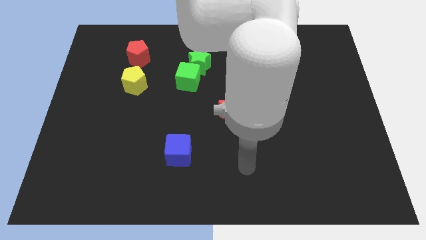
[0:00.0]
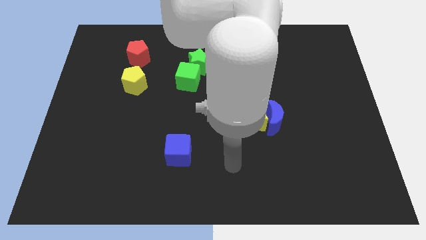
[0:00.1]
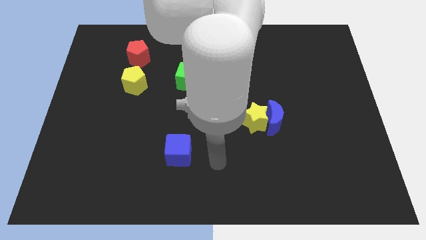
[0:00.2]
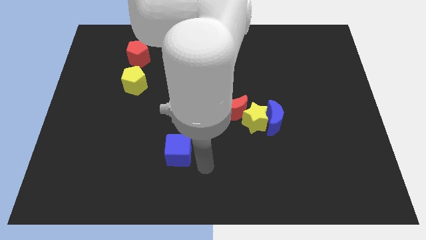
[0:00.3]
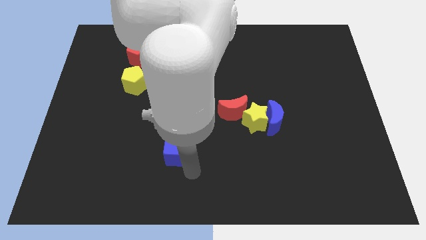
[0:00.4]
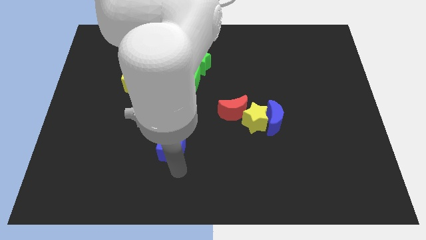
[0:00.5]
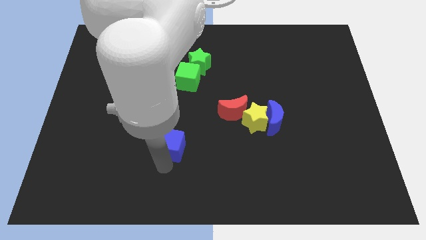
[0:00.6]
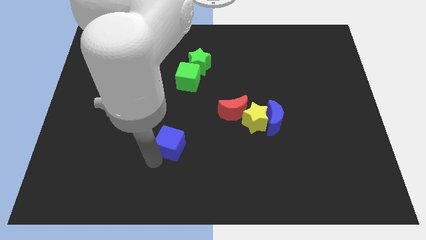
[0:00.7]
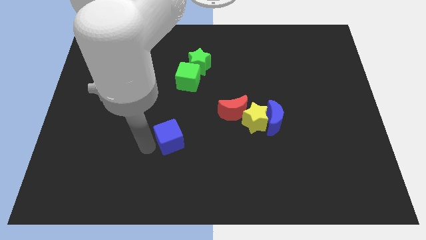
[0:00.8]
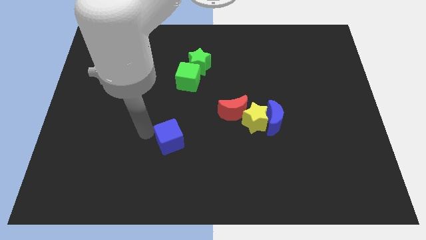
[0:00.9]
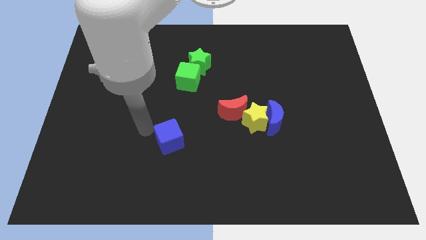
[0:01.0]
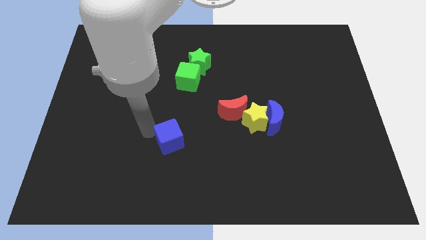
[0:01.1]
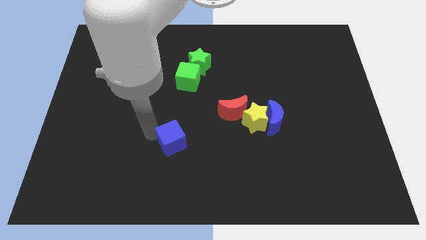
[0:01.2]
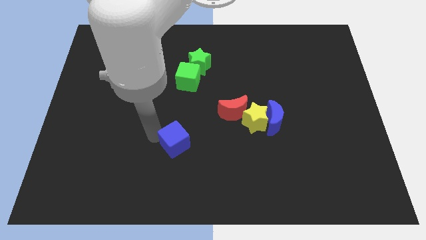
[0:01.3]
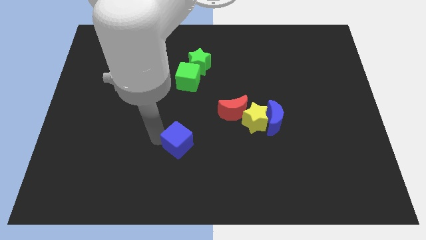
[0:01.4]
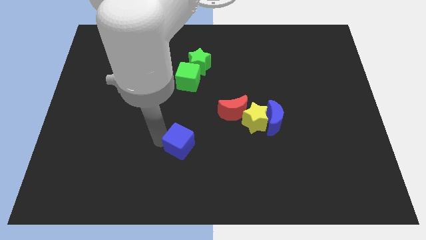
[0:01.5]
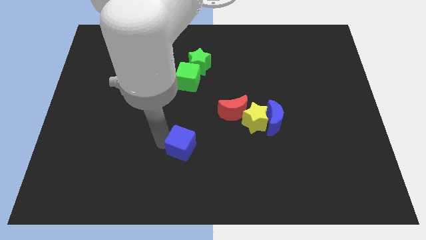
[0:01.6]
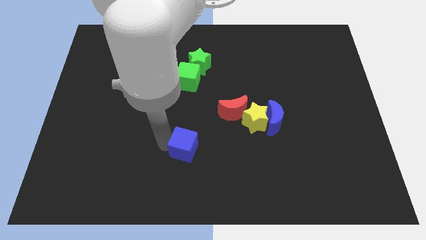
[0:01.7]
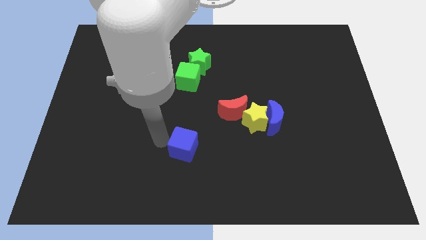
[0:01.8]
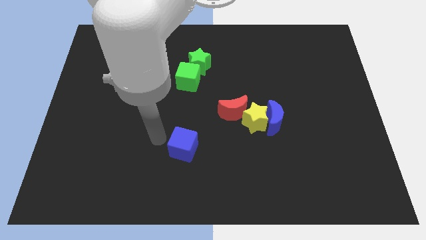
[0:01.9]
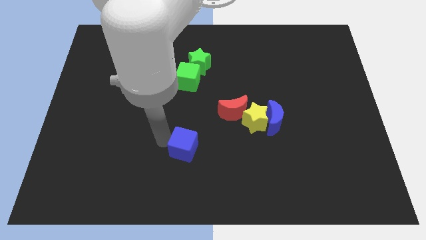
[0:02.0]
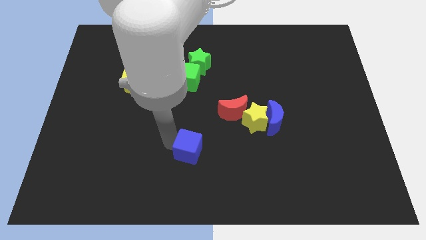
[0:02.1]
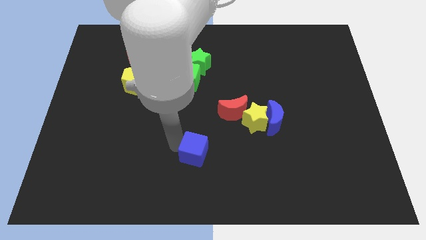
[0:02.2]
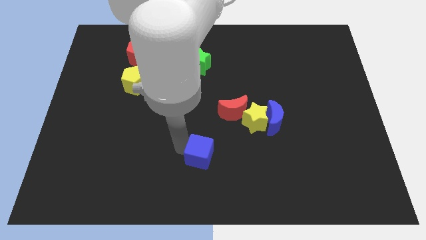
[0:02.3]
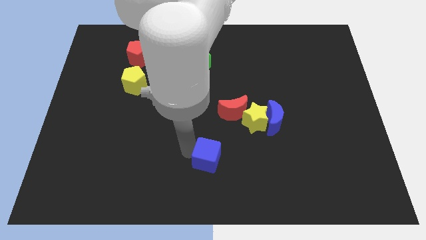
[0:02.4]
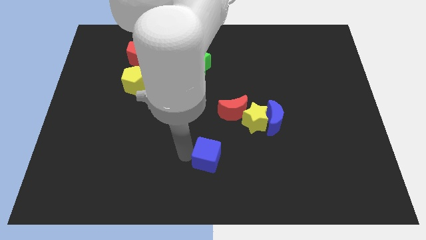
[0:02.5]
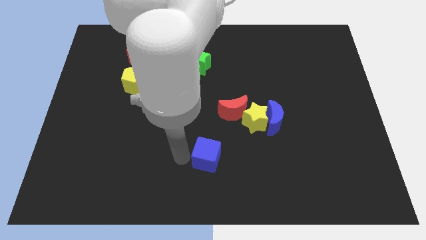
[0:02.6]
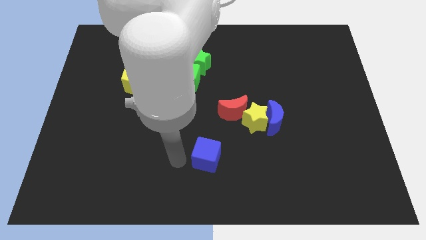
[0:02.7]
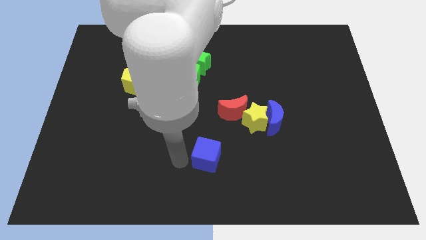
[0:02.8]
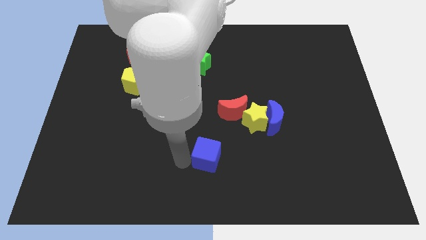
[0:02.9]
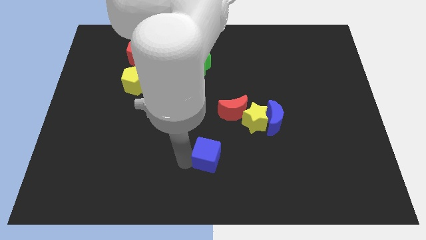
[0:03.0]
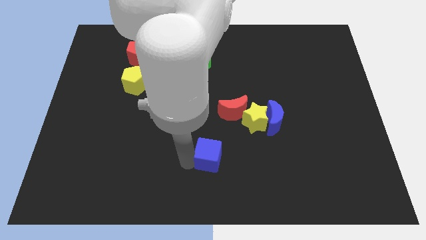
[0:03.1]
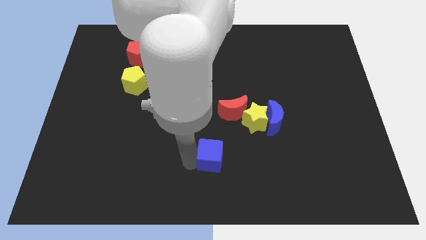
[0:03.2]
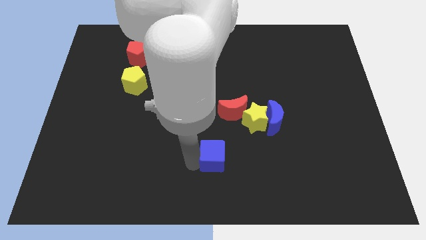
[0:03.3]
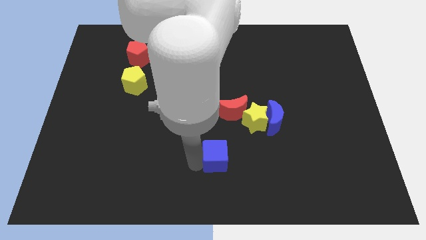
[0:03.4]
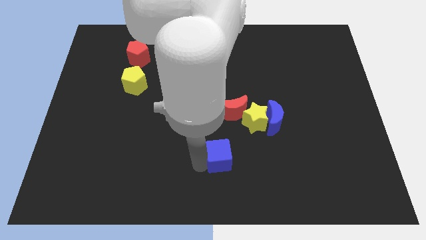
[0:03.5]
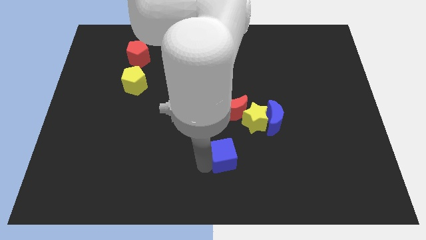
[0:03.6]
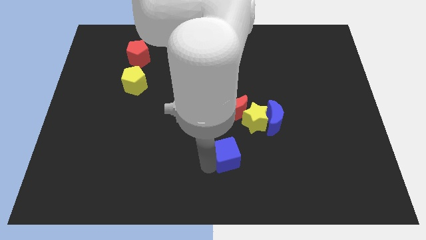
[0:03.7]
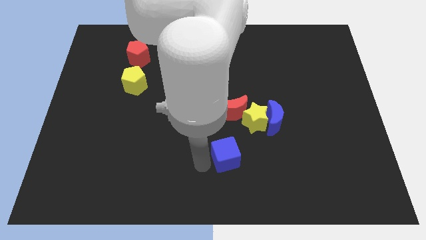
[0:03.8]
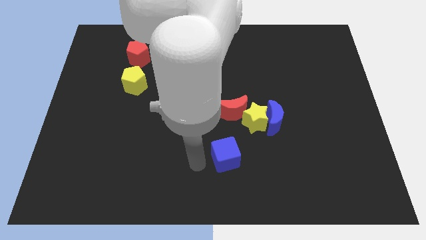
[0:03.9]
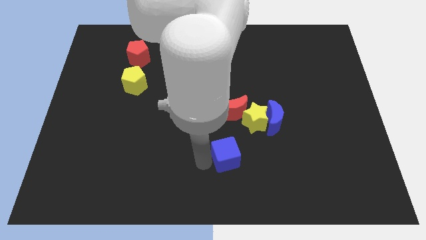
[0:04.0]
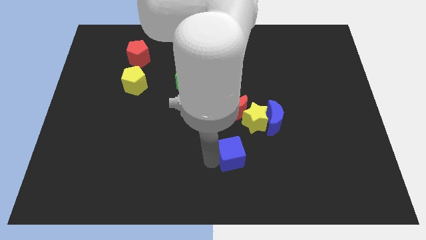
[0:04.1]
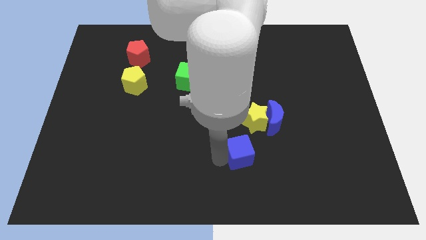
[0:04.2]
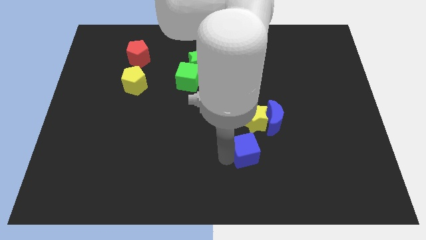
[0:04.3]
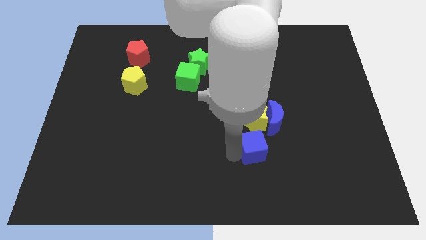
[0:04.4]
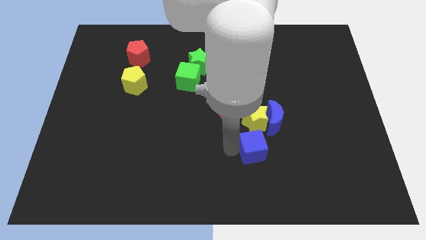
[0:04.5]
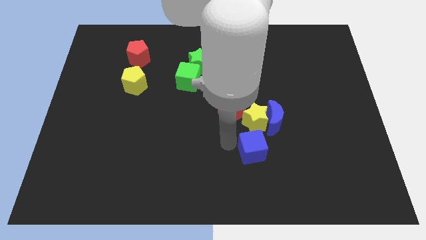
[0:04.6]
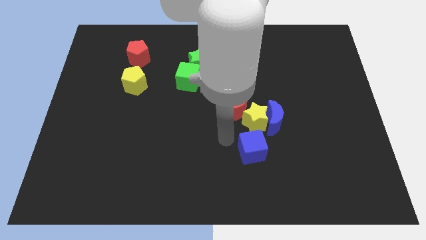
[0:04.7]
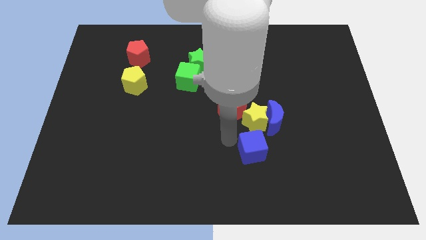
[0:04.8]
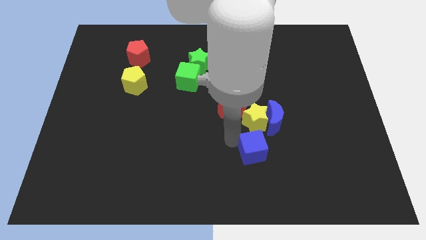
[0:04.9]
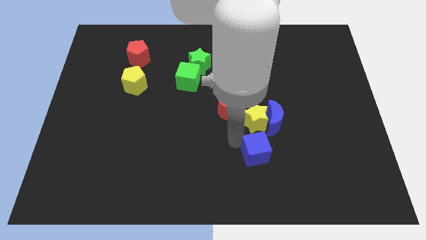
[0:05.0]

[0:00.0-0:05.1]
slide the blue cube to the bottom side of the blue moon

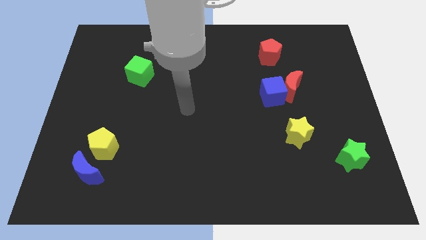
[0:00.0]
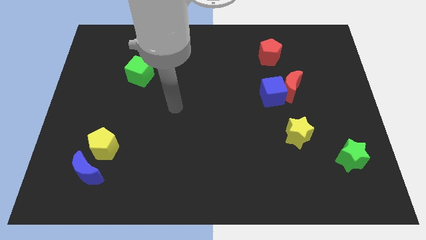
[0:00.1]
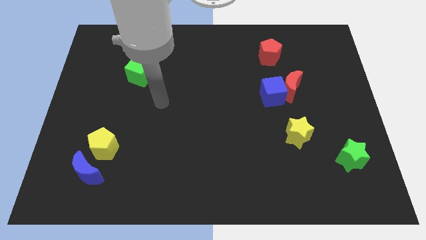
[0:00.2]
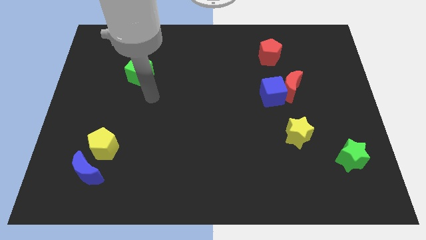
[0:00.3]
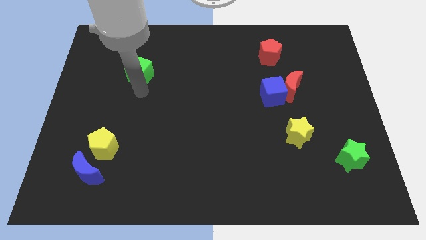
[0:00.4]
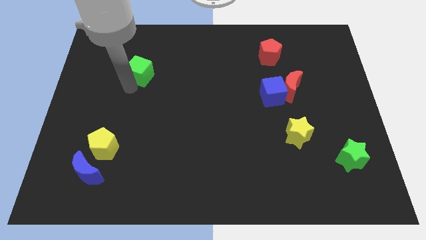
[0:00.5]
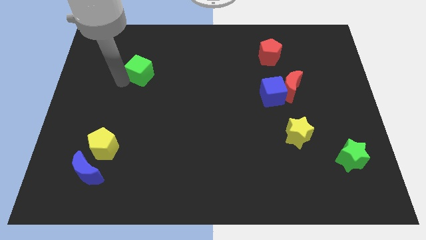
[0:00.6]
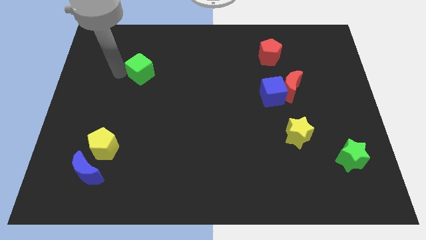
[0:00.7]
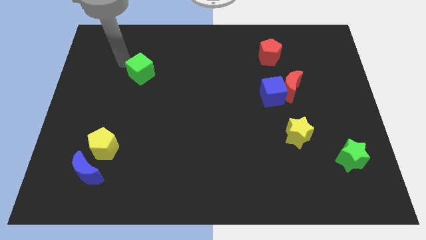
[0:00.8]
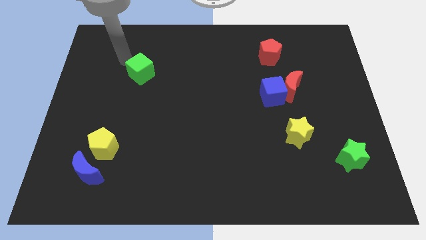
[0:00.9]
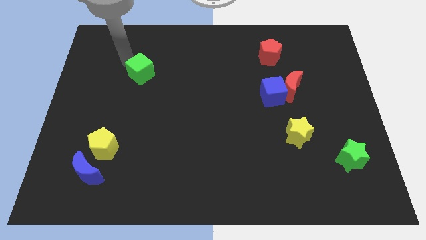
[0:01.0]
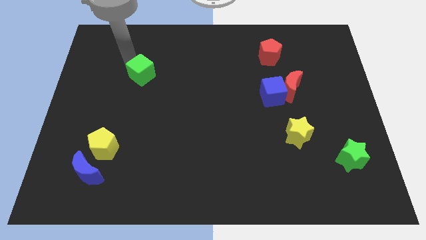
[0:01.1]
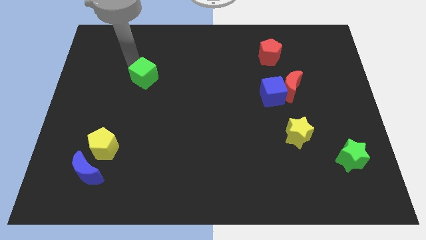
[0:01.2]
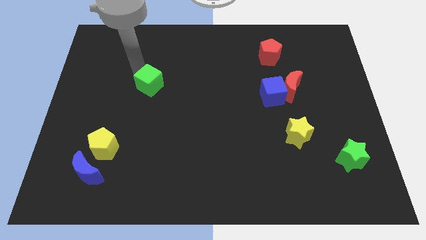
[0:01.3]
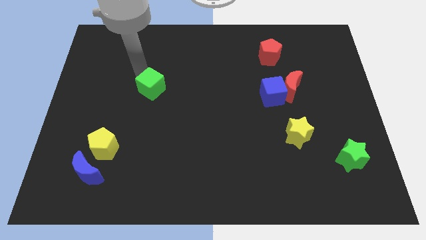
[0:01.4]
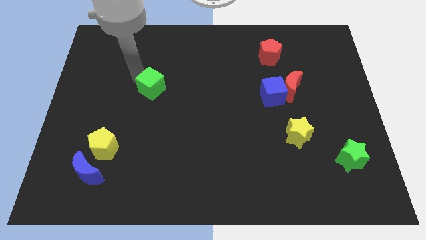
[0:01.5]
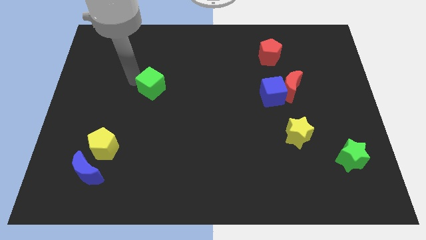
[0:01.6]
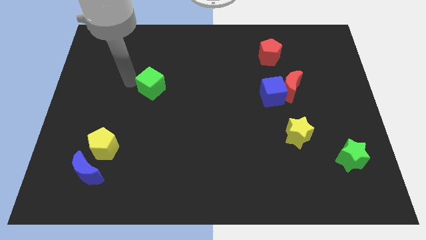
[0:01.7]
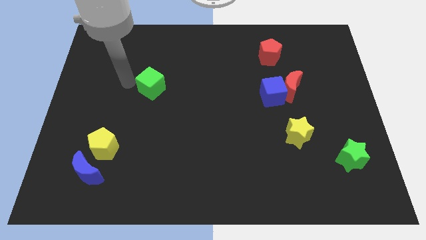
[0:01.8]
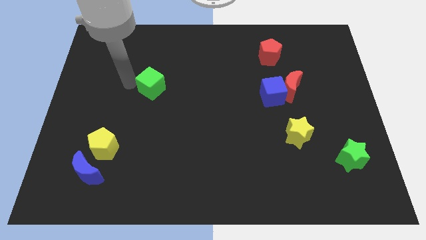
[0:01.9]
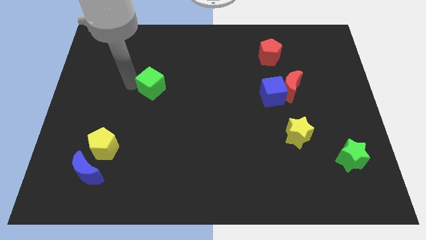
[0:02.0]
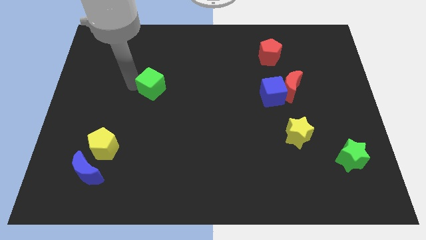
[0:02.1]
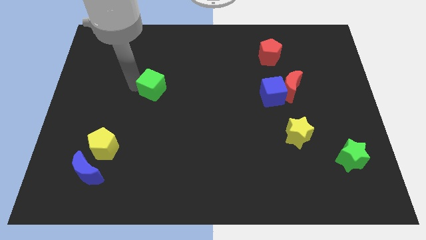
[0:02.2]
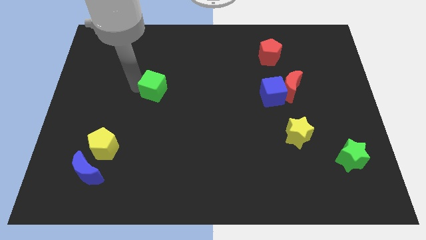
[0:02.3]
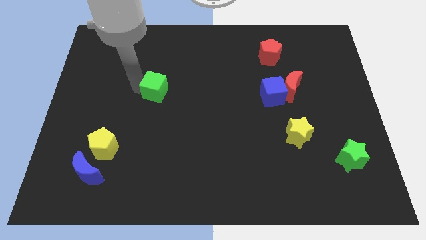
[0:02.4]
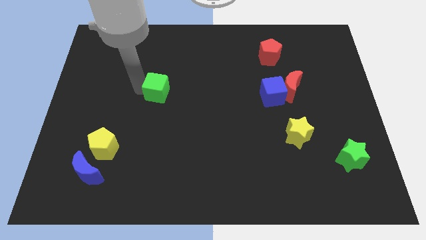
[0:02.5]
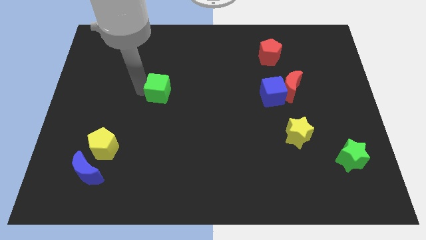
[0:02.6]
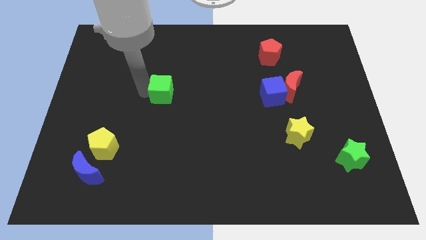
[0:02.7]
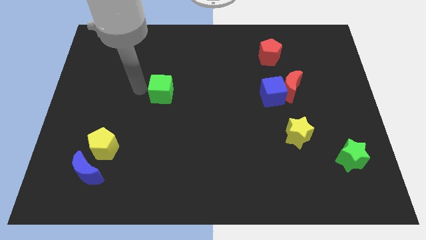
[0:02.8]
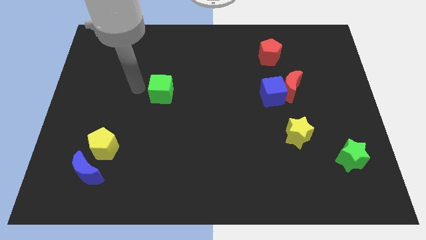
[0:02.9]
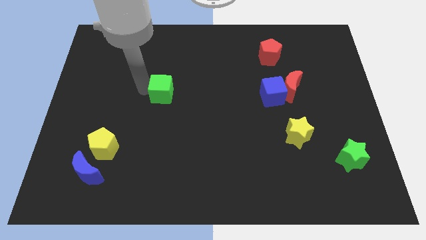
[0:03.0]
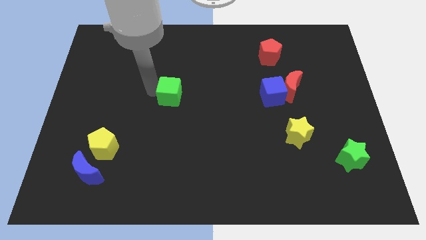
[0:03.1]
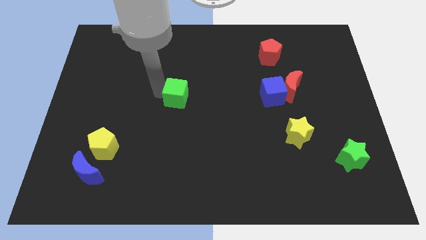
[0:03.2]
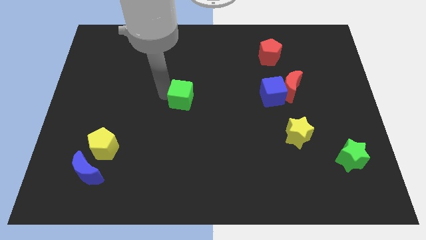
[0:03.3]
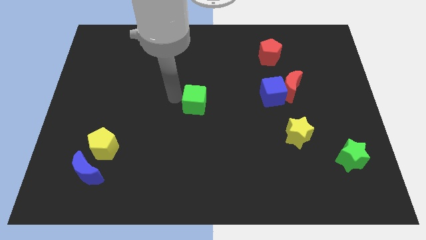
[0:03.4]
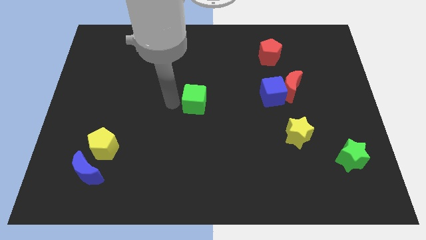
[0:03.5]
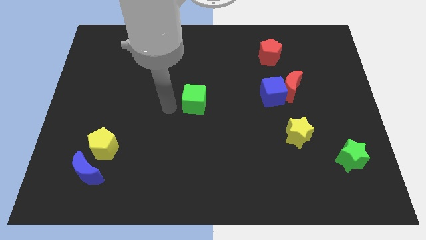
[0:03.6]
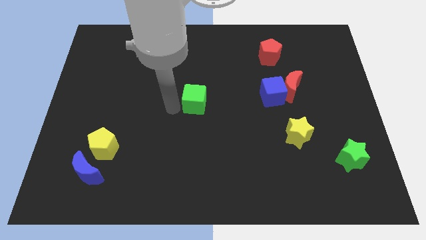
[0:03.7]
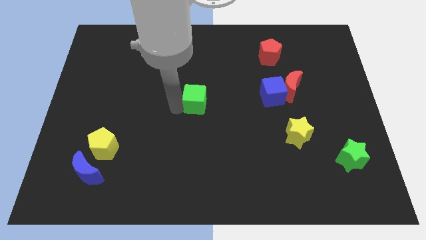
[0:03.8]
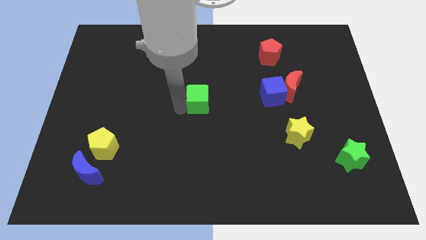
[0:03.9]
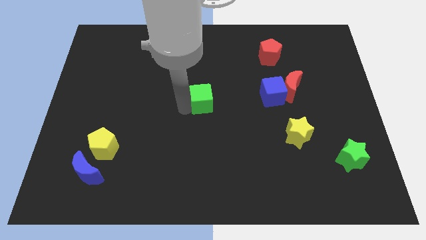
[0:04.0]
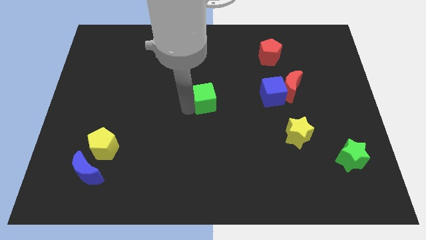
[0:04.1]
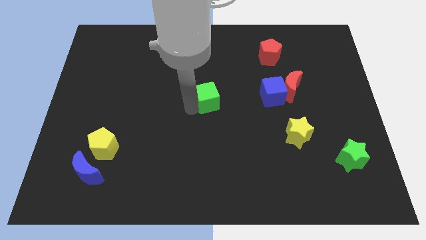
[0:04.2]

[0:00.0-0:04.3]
move the green cube left of the blue cube
